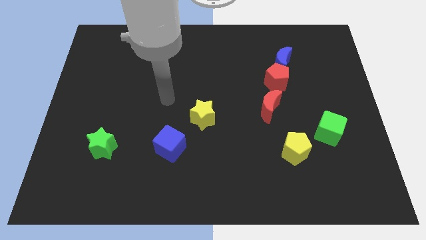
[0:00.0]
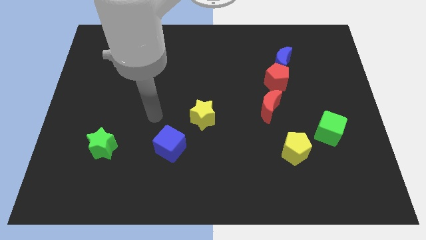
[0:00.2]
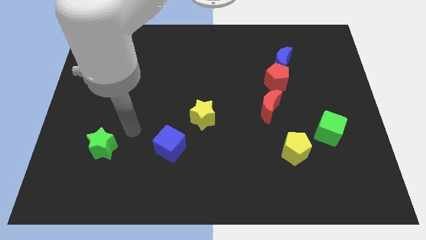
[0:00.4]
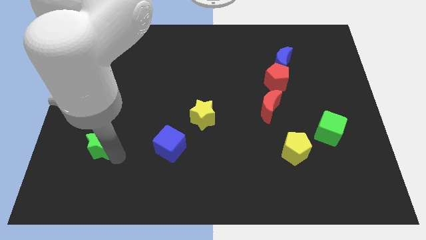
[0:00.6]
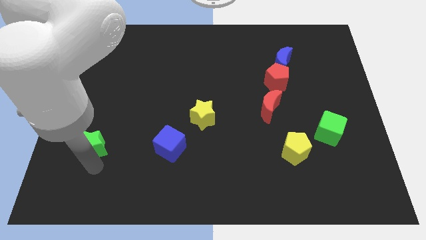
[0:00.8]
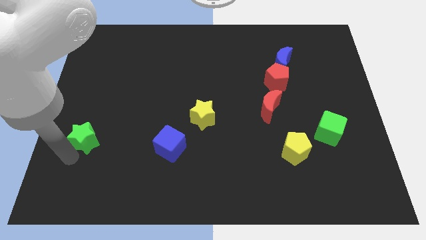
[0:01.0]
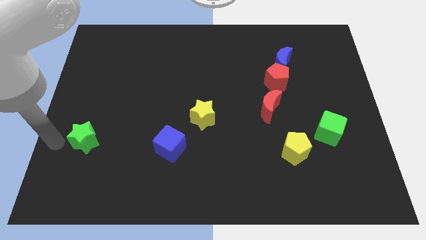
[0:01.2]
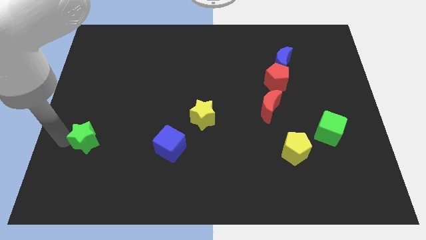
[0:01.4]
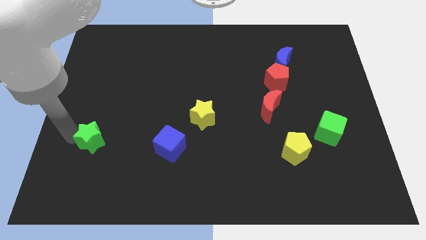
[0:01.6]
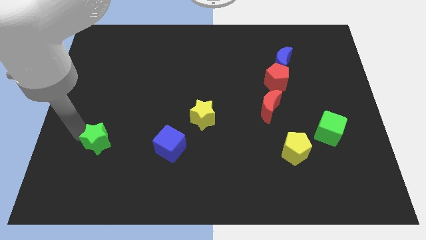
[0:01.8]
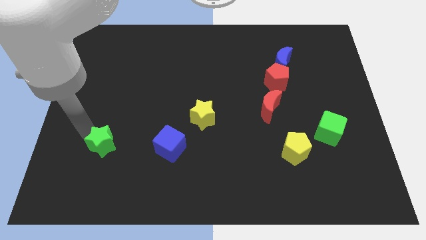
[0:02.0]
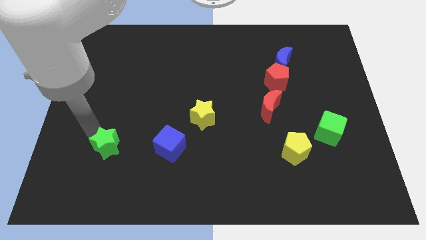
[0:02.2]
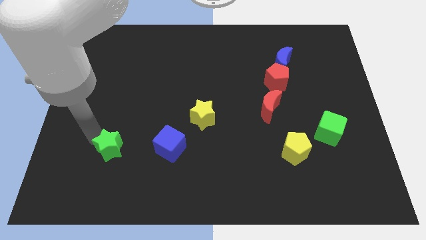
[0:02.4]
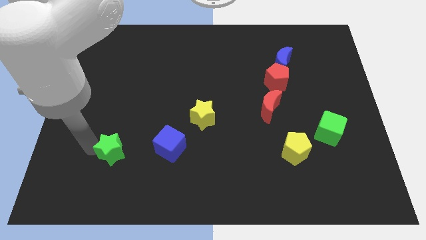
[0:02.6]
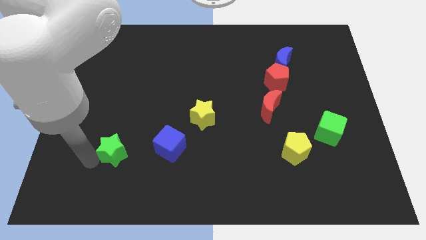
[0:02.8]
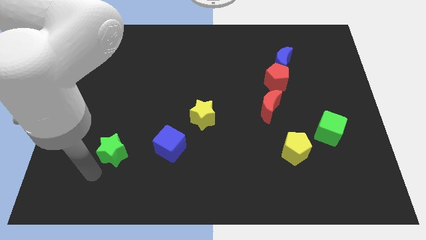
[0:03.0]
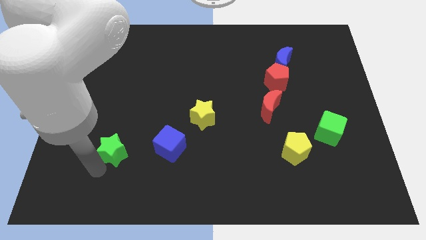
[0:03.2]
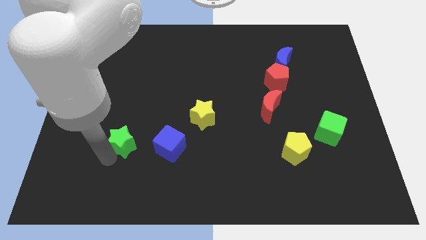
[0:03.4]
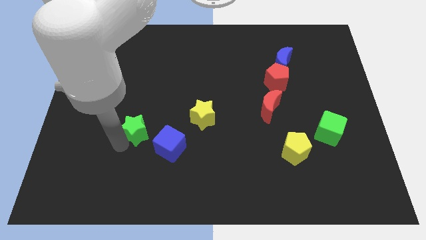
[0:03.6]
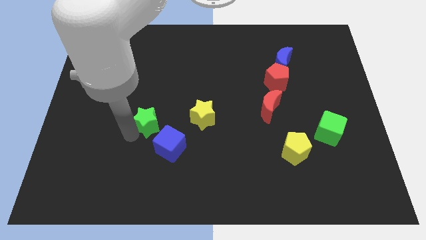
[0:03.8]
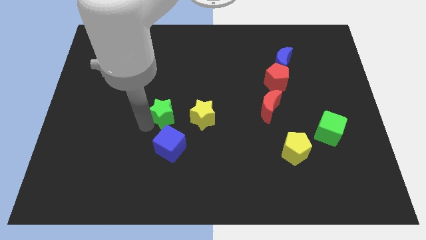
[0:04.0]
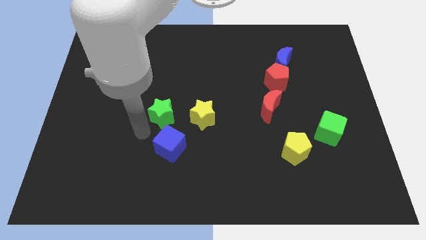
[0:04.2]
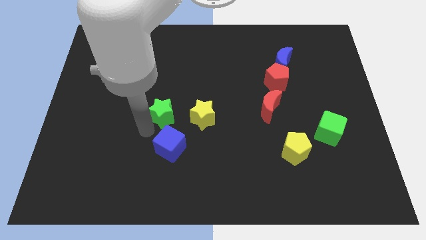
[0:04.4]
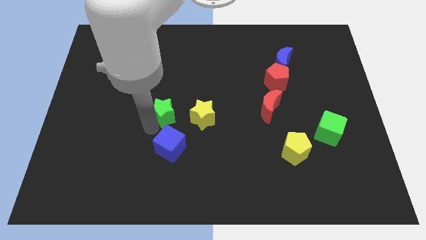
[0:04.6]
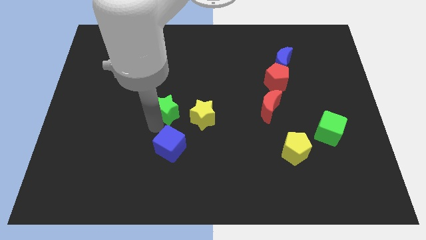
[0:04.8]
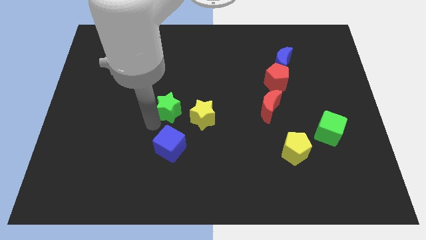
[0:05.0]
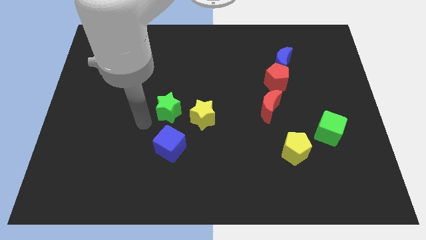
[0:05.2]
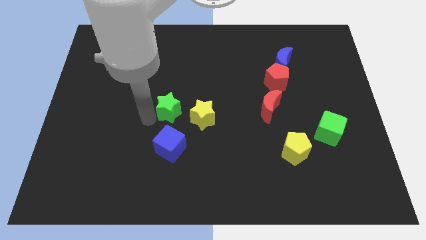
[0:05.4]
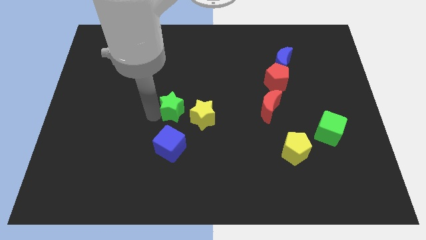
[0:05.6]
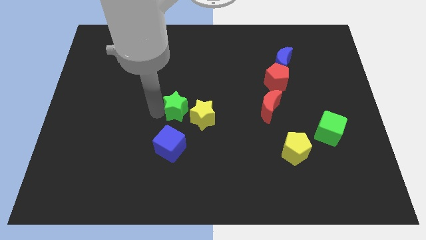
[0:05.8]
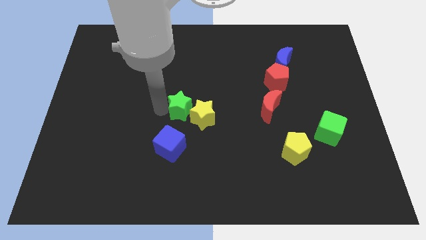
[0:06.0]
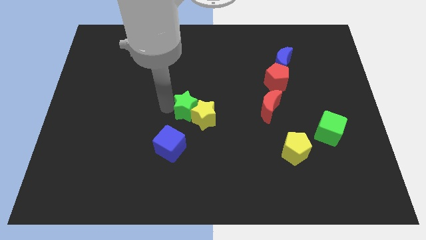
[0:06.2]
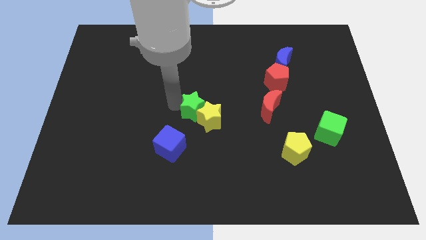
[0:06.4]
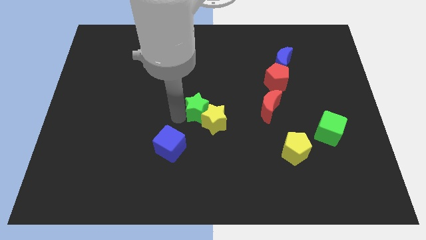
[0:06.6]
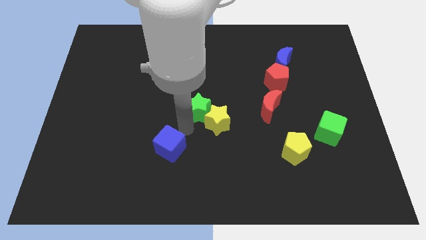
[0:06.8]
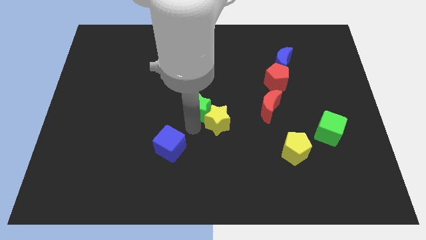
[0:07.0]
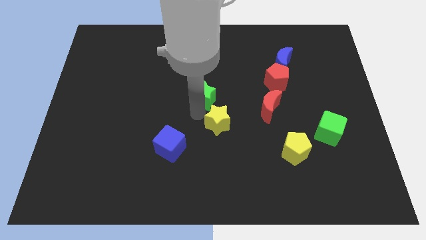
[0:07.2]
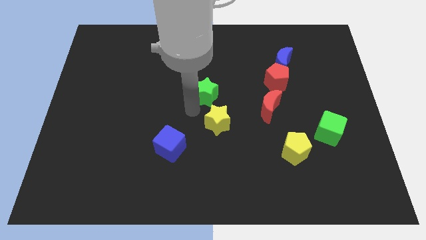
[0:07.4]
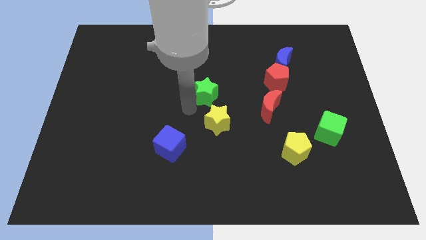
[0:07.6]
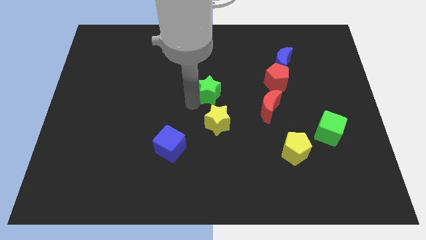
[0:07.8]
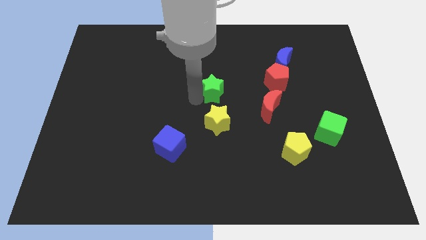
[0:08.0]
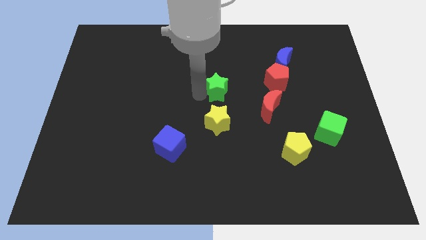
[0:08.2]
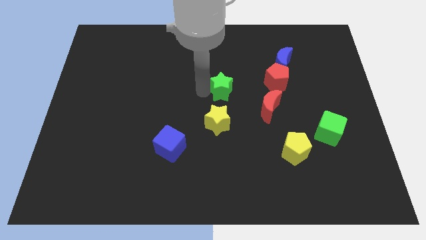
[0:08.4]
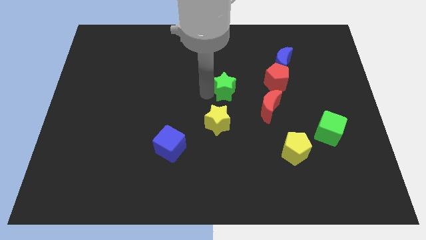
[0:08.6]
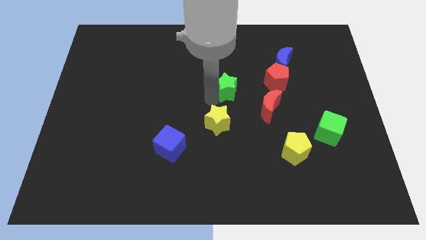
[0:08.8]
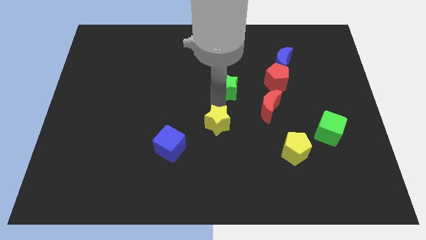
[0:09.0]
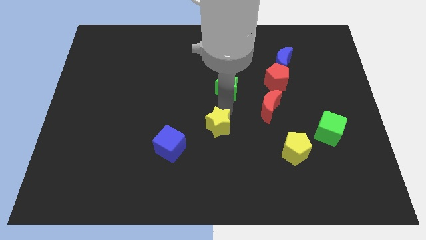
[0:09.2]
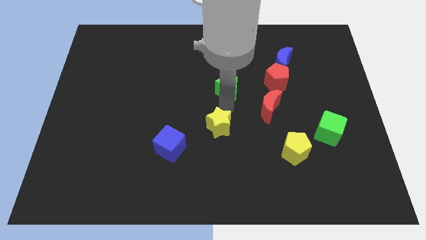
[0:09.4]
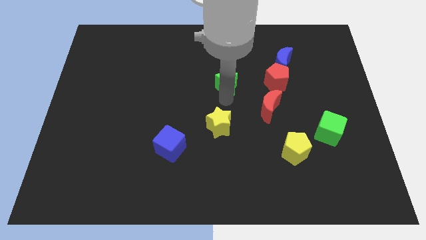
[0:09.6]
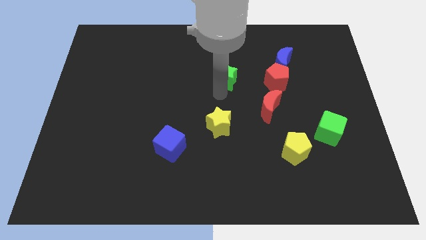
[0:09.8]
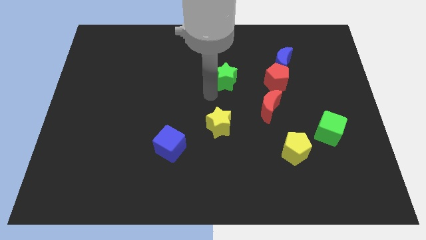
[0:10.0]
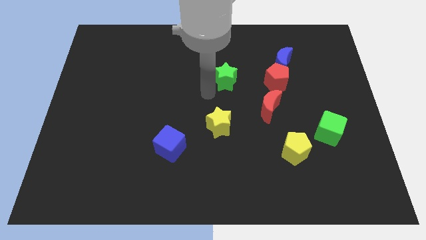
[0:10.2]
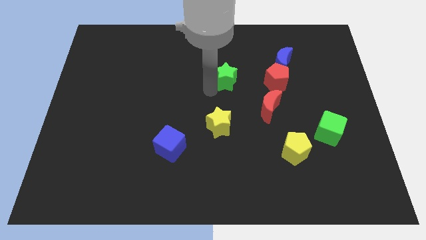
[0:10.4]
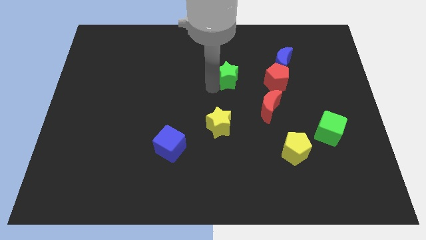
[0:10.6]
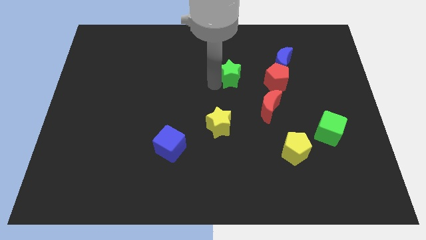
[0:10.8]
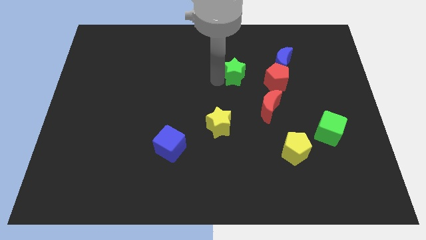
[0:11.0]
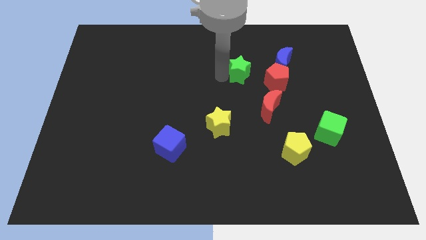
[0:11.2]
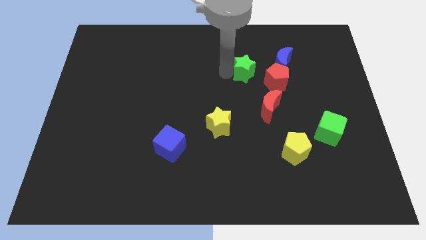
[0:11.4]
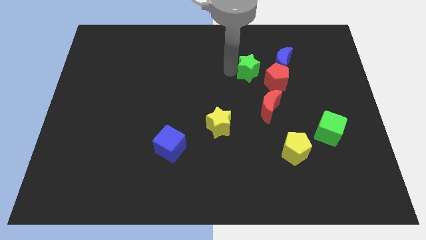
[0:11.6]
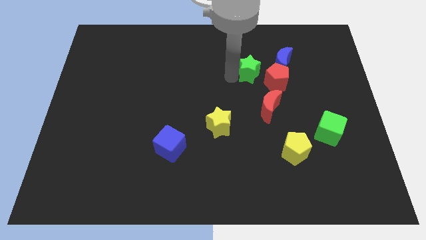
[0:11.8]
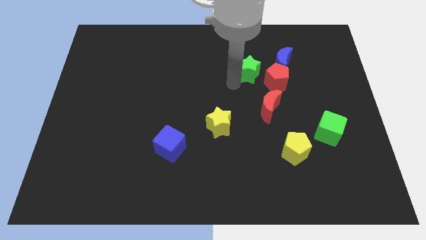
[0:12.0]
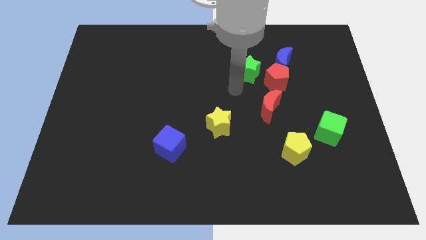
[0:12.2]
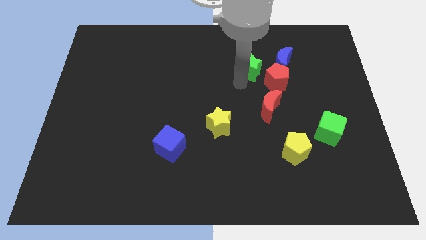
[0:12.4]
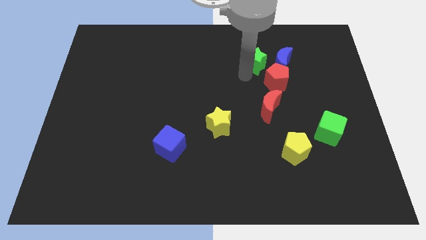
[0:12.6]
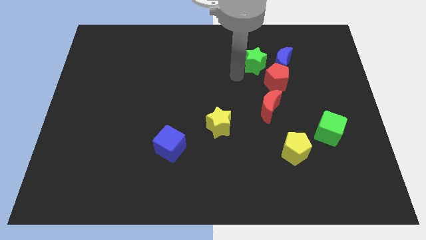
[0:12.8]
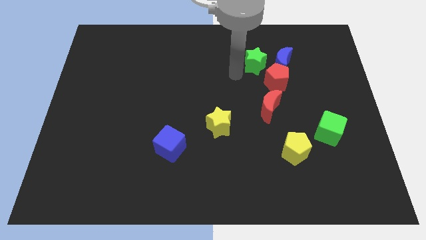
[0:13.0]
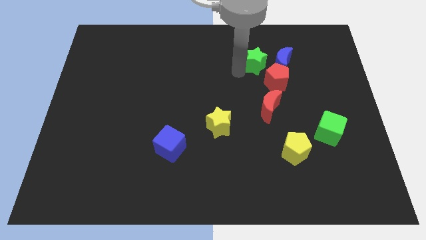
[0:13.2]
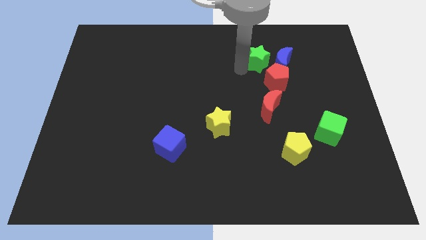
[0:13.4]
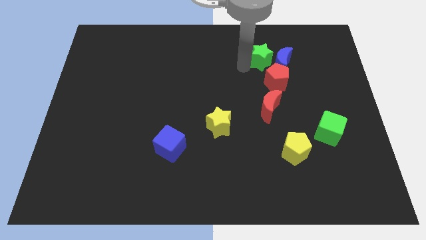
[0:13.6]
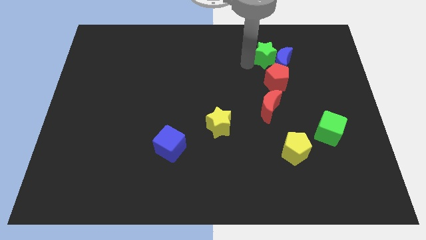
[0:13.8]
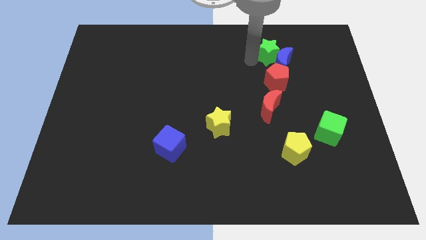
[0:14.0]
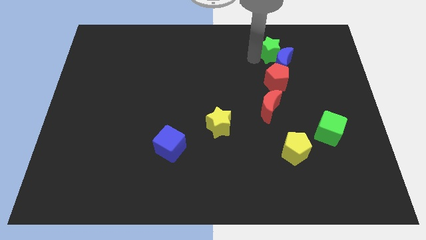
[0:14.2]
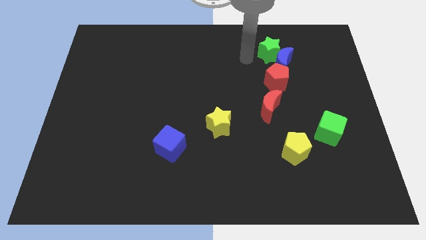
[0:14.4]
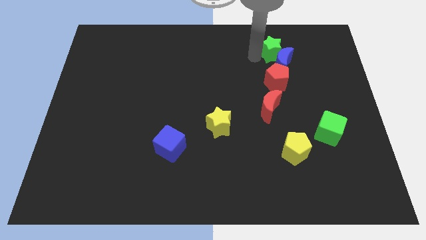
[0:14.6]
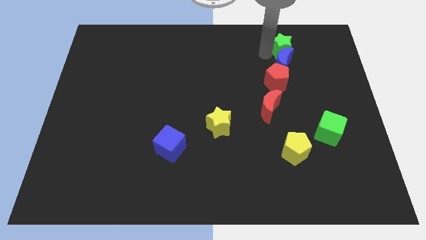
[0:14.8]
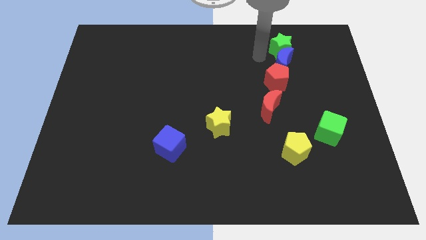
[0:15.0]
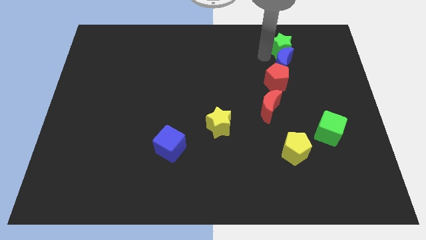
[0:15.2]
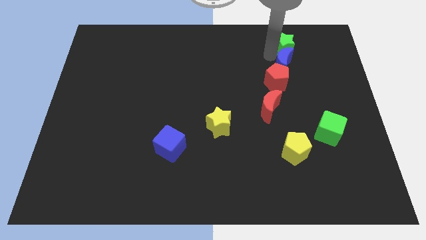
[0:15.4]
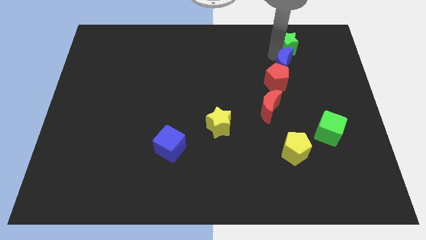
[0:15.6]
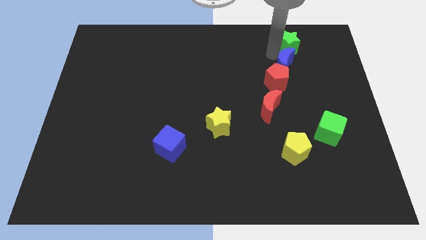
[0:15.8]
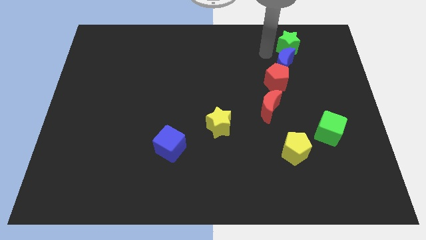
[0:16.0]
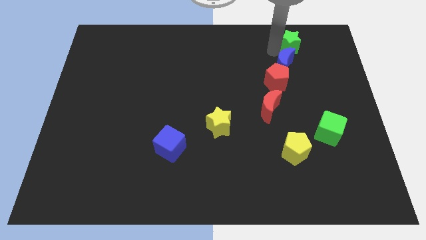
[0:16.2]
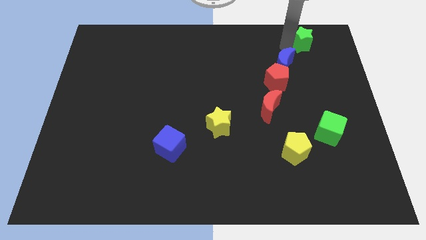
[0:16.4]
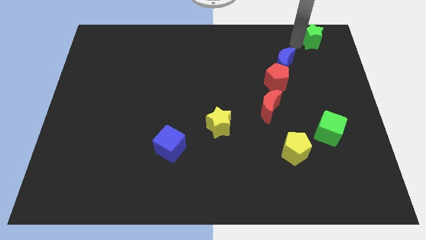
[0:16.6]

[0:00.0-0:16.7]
move the green star to the upper right corner
